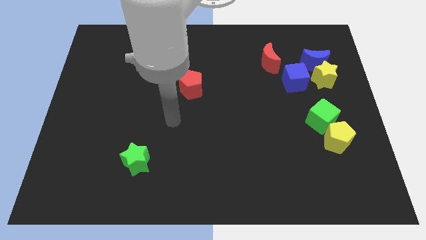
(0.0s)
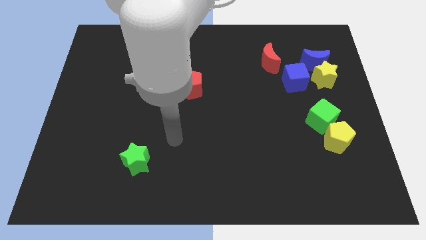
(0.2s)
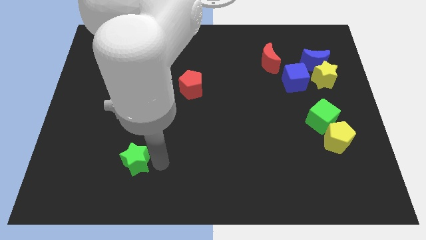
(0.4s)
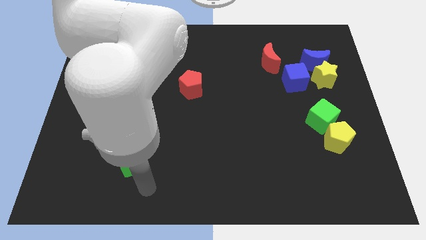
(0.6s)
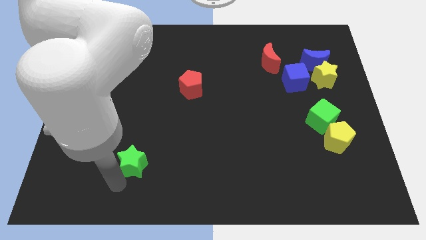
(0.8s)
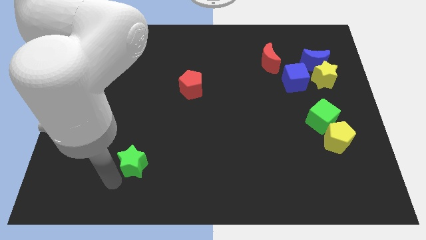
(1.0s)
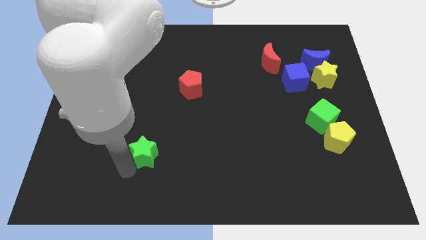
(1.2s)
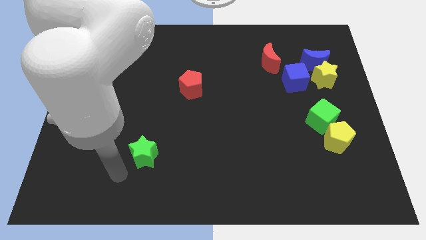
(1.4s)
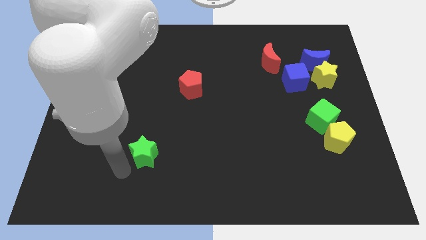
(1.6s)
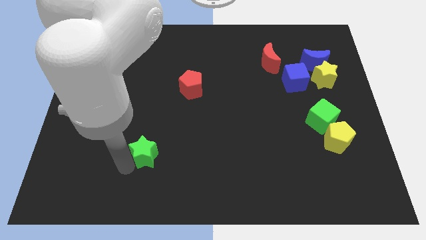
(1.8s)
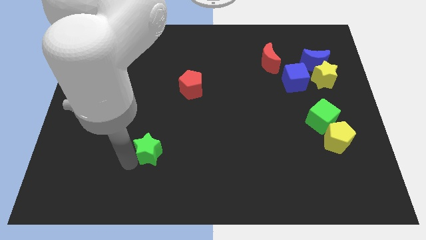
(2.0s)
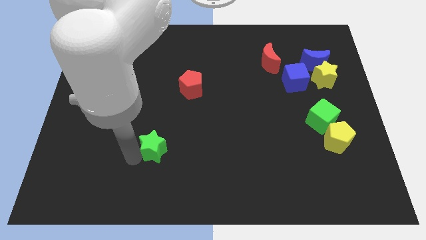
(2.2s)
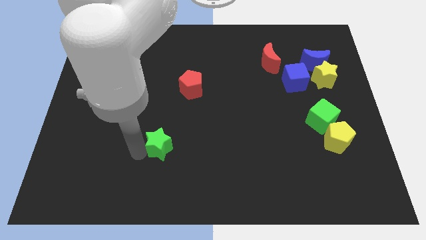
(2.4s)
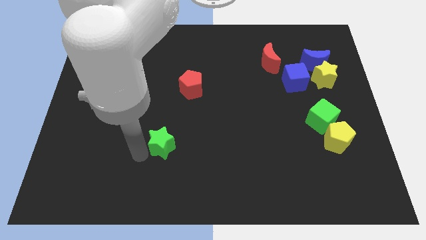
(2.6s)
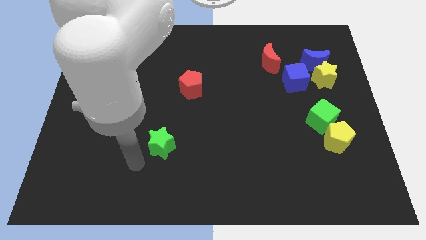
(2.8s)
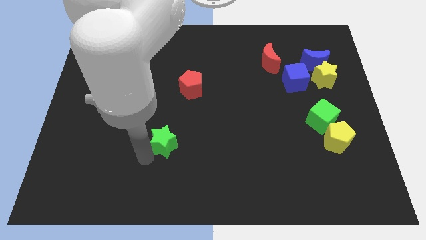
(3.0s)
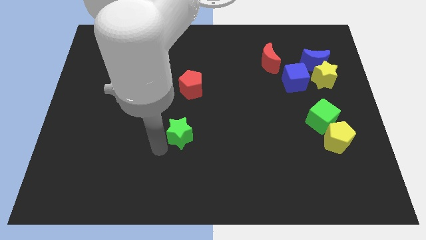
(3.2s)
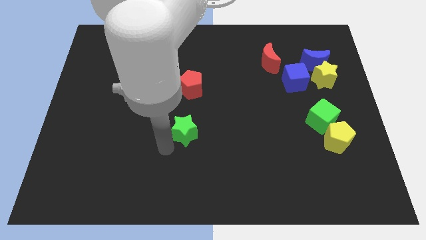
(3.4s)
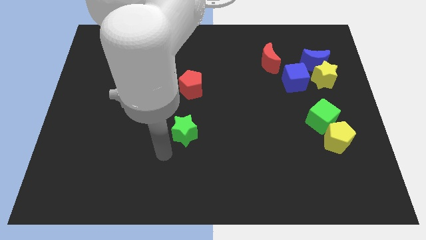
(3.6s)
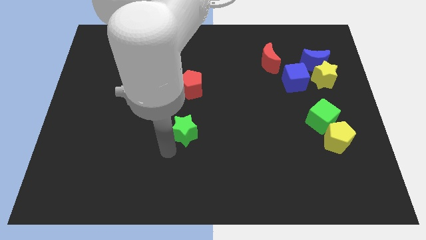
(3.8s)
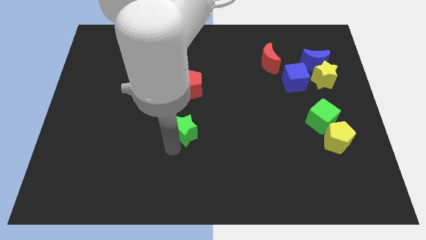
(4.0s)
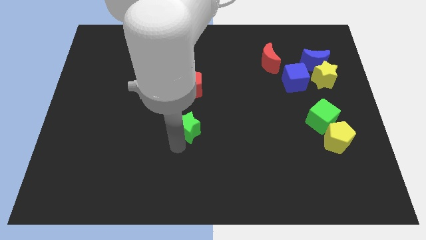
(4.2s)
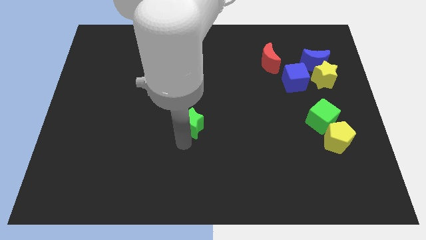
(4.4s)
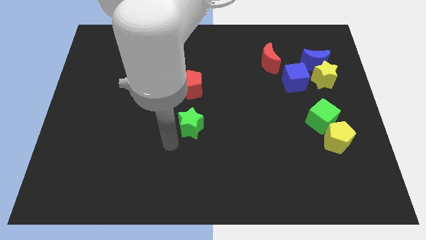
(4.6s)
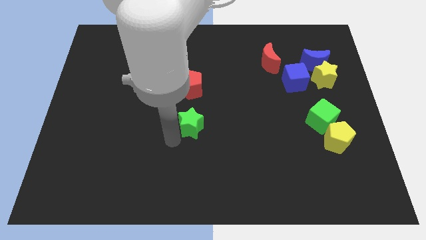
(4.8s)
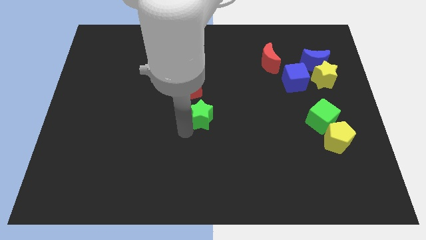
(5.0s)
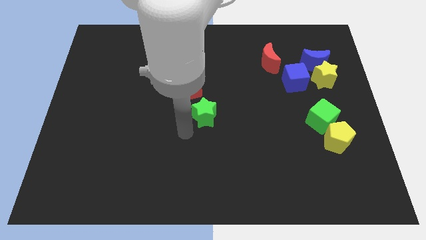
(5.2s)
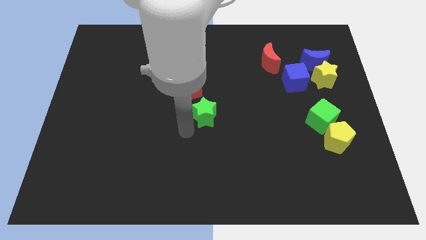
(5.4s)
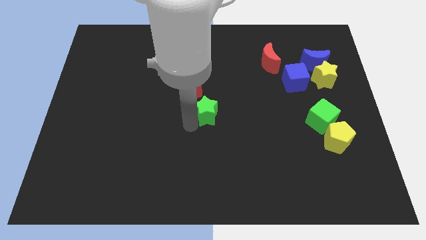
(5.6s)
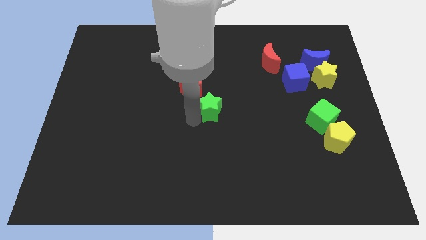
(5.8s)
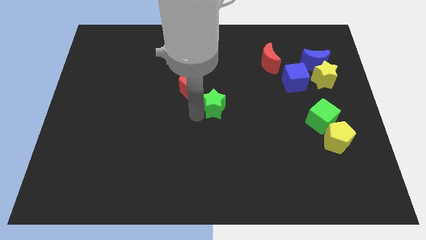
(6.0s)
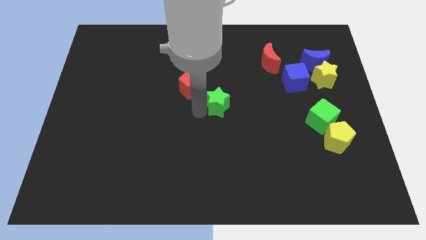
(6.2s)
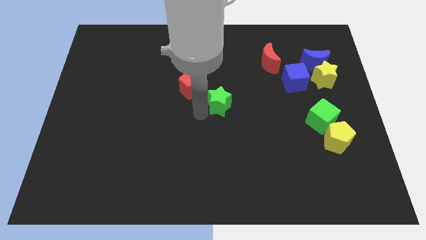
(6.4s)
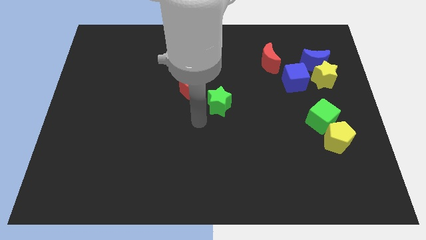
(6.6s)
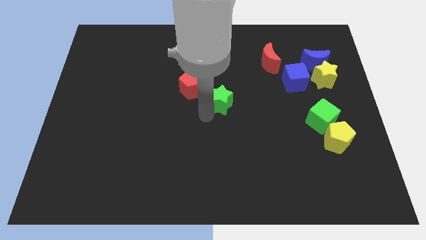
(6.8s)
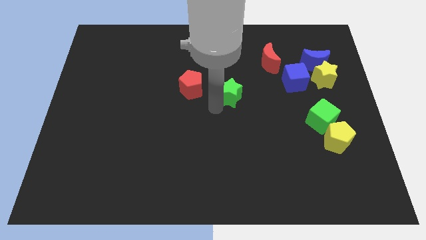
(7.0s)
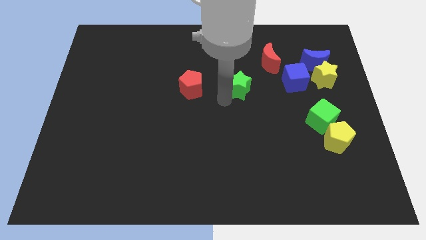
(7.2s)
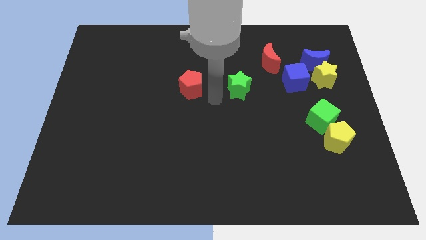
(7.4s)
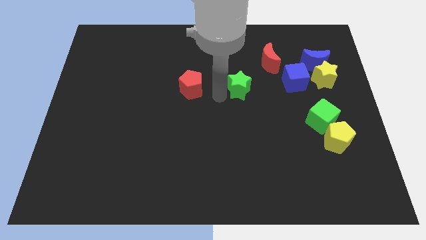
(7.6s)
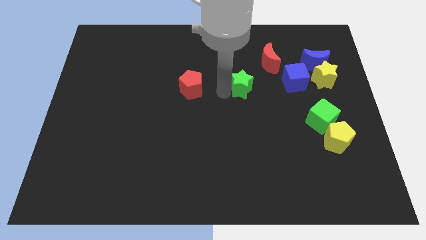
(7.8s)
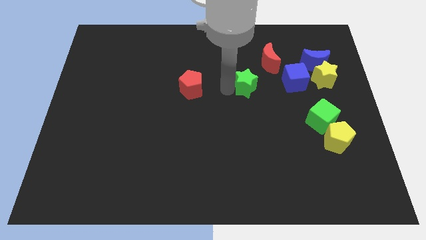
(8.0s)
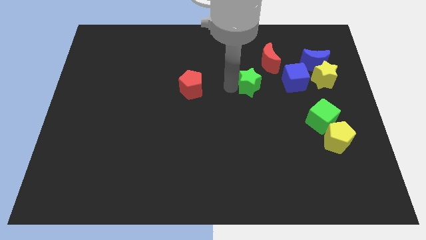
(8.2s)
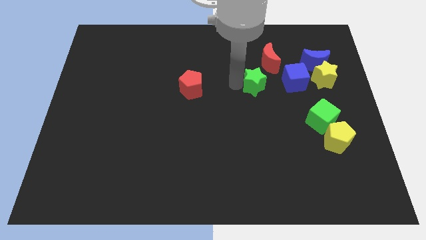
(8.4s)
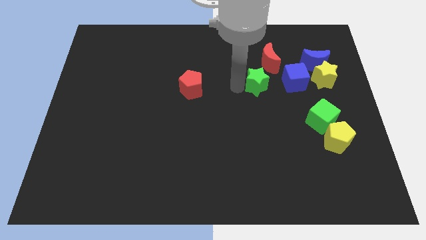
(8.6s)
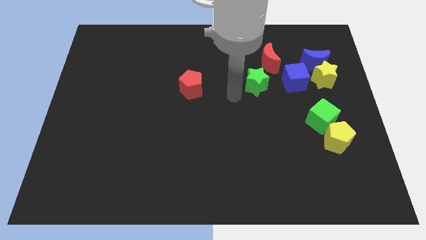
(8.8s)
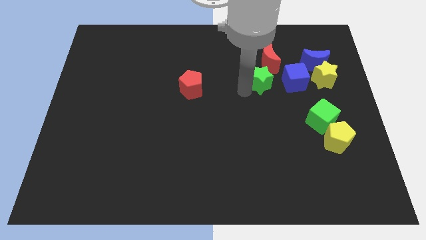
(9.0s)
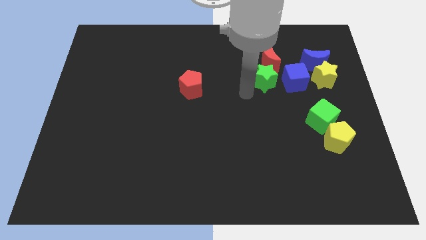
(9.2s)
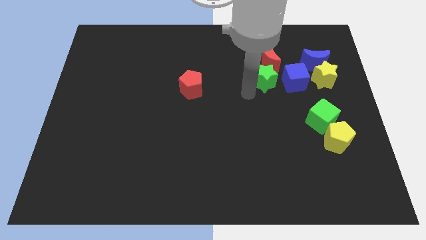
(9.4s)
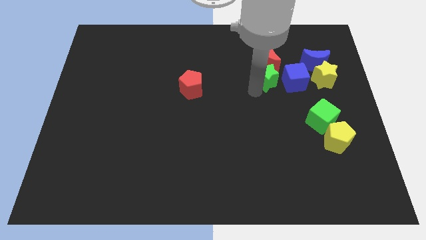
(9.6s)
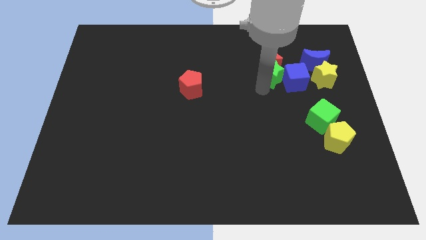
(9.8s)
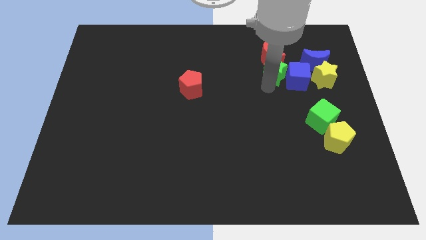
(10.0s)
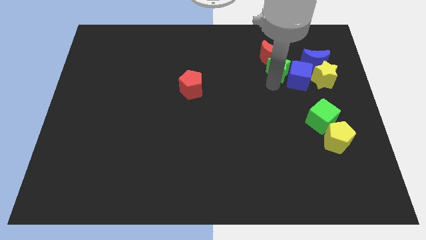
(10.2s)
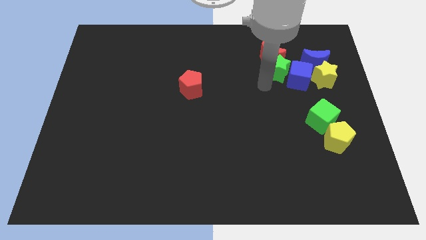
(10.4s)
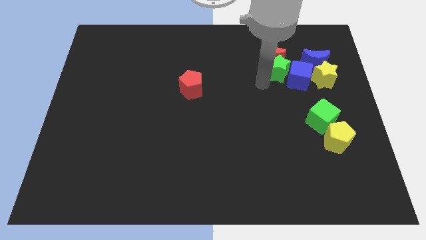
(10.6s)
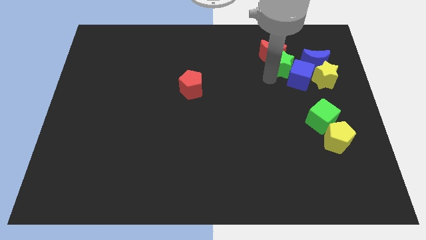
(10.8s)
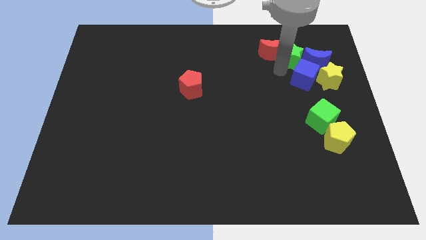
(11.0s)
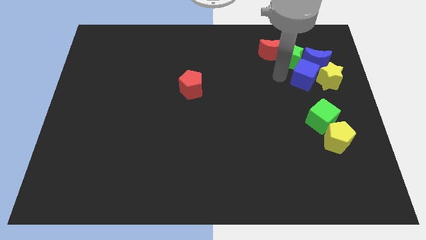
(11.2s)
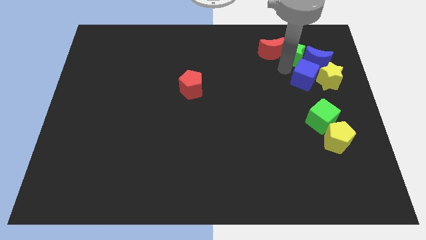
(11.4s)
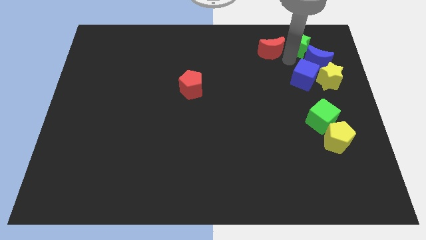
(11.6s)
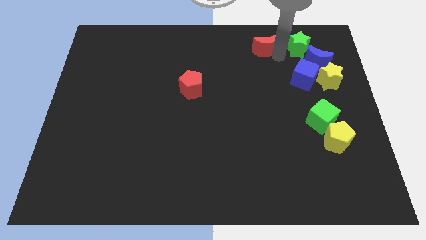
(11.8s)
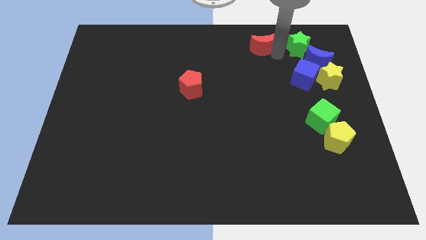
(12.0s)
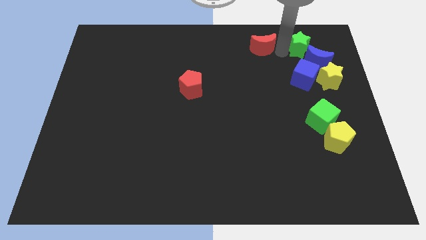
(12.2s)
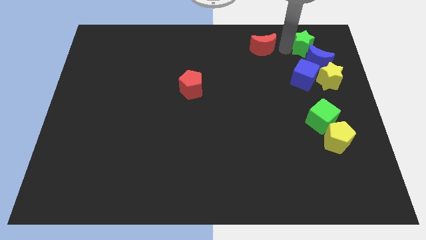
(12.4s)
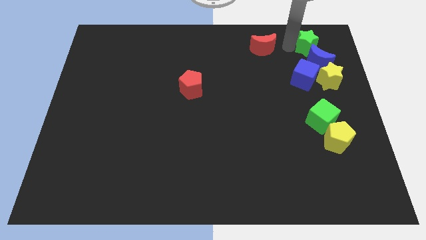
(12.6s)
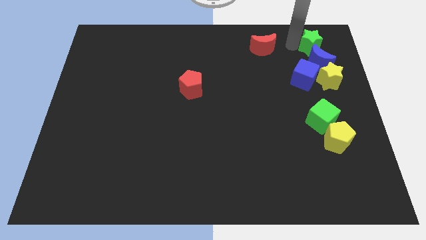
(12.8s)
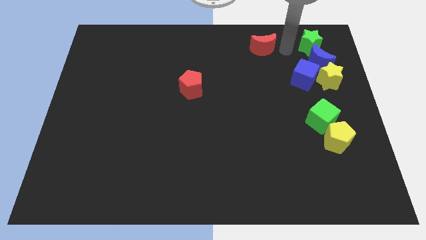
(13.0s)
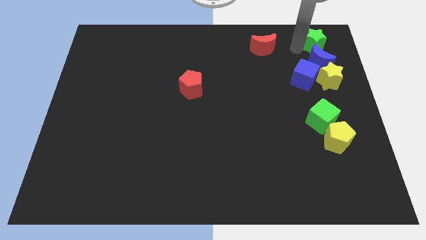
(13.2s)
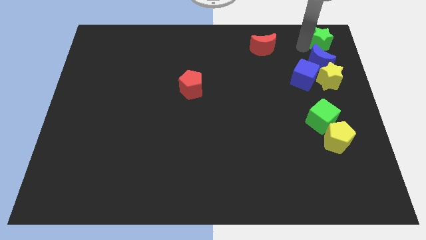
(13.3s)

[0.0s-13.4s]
move the green star to the top right

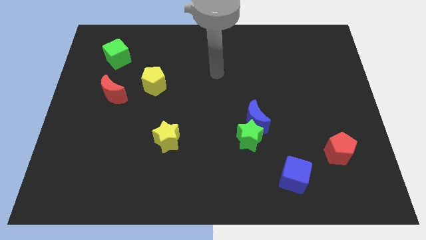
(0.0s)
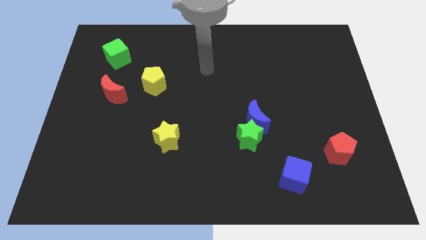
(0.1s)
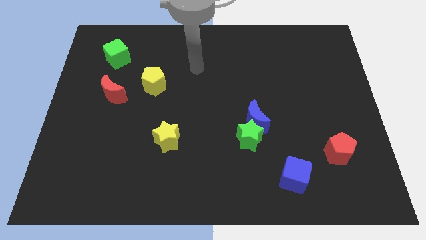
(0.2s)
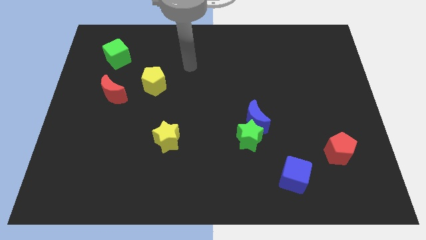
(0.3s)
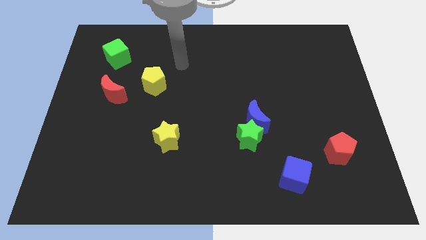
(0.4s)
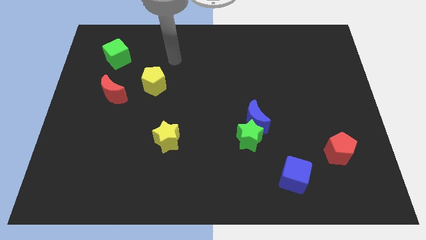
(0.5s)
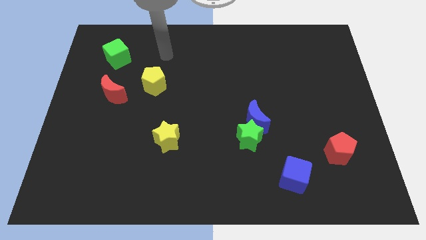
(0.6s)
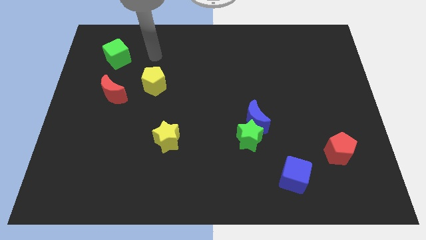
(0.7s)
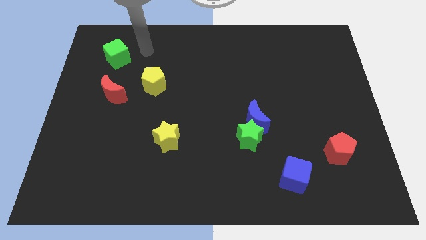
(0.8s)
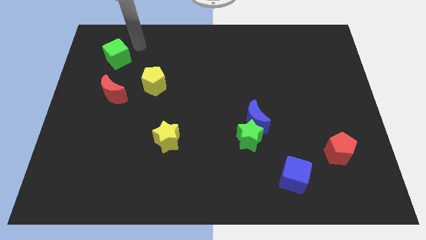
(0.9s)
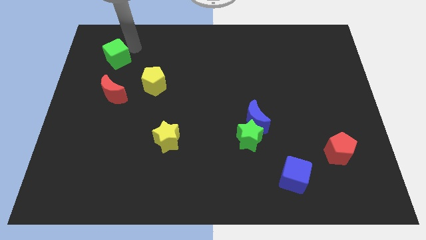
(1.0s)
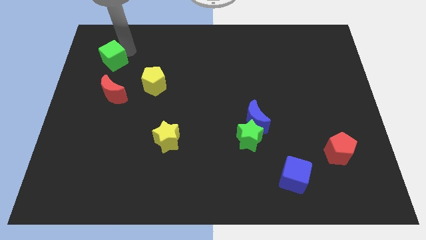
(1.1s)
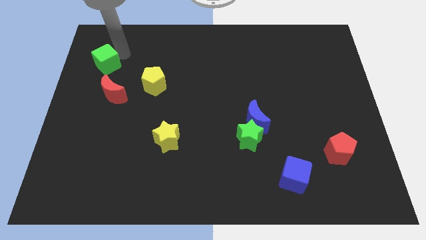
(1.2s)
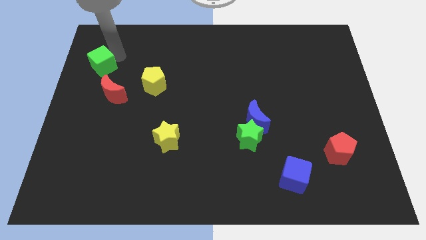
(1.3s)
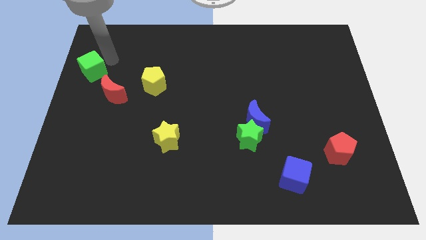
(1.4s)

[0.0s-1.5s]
push the green cube to the left side of the board
